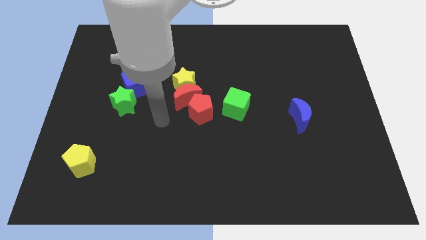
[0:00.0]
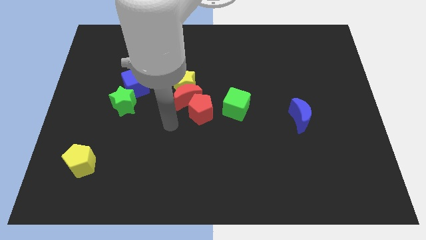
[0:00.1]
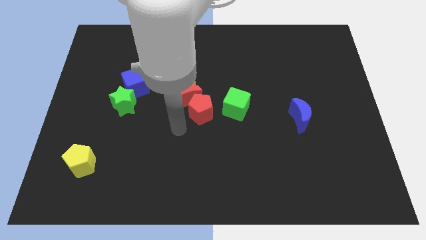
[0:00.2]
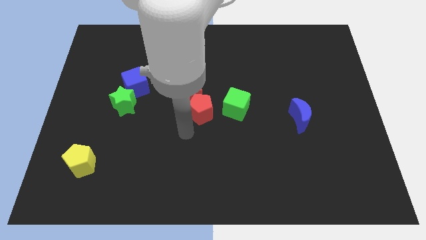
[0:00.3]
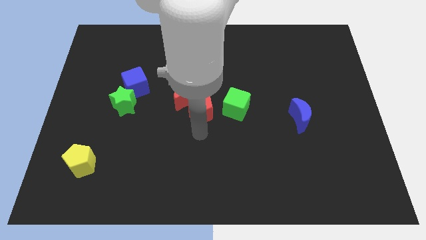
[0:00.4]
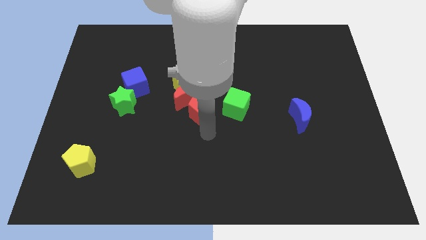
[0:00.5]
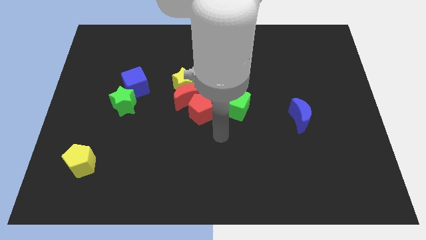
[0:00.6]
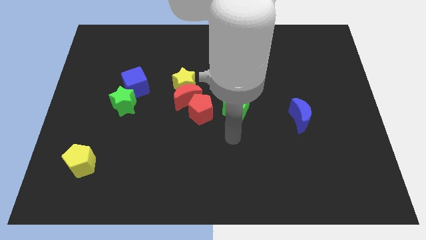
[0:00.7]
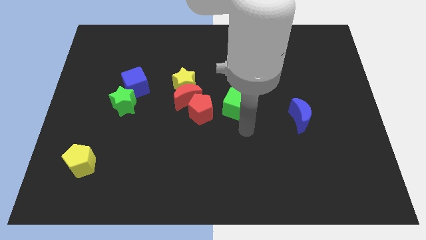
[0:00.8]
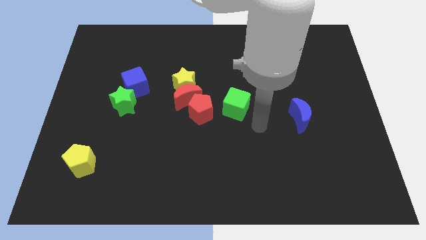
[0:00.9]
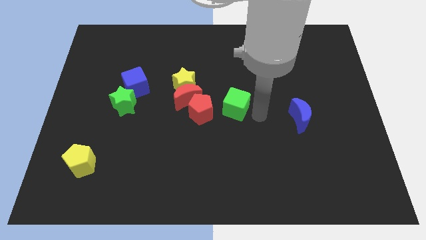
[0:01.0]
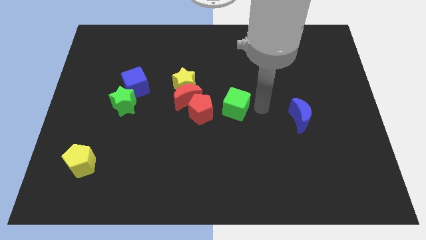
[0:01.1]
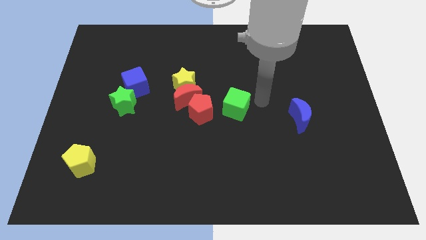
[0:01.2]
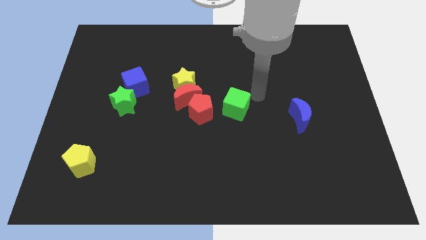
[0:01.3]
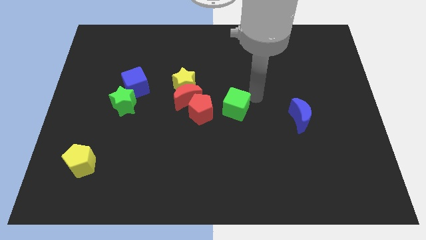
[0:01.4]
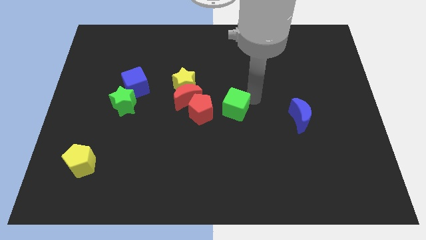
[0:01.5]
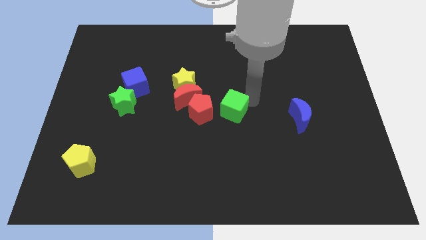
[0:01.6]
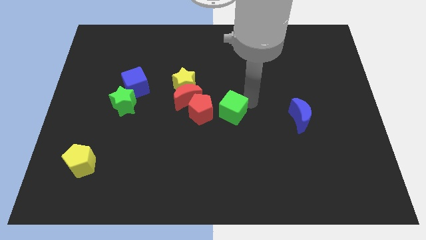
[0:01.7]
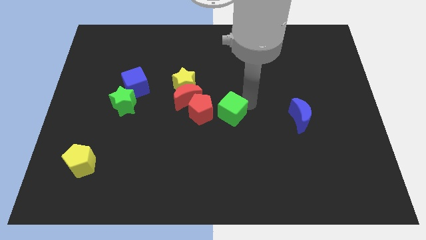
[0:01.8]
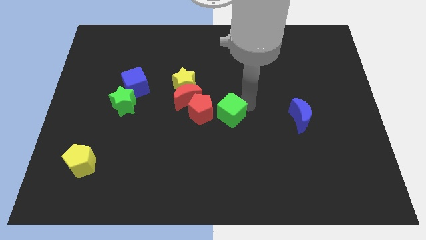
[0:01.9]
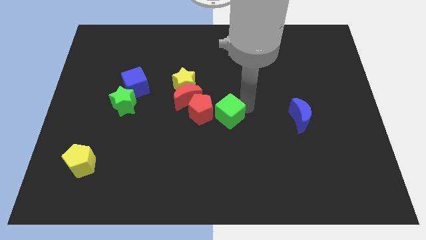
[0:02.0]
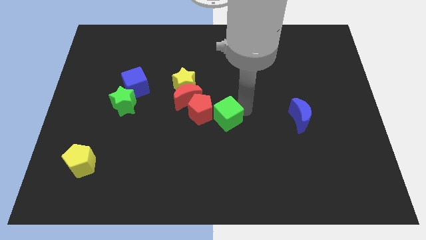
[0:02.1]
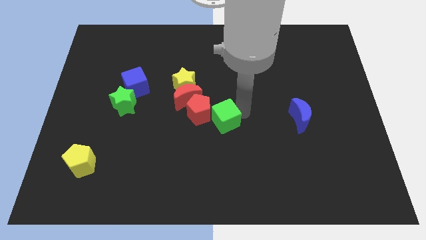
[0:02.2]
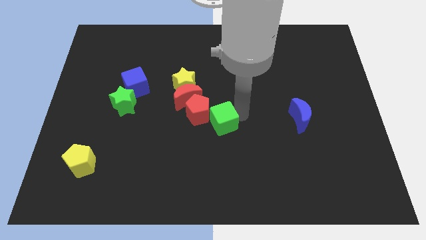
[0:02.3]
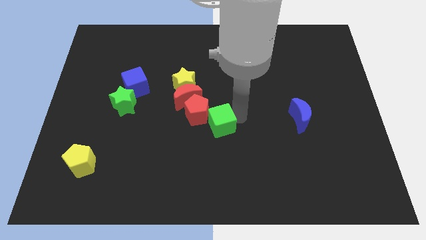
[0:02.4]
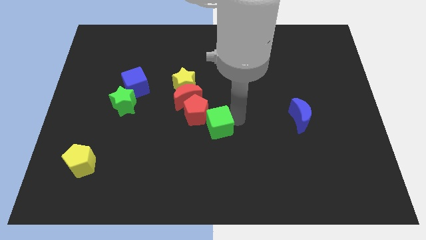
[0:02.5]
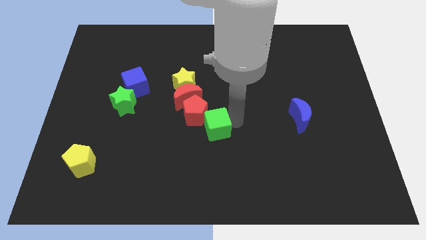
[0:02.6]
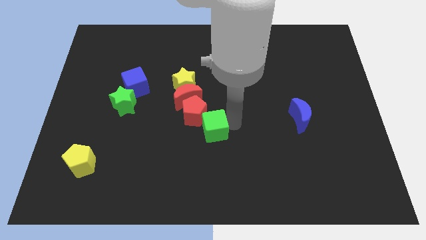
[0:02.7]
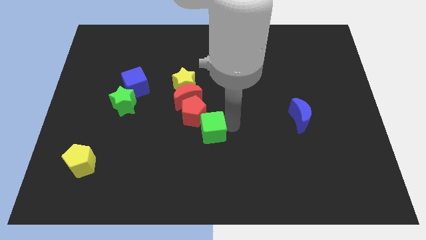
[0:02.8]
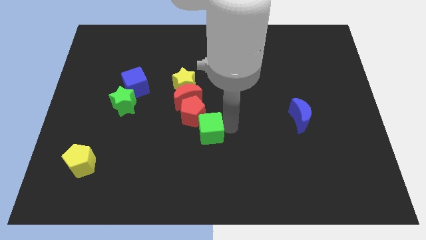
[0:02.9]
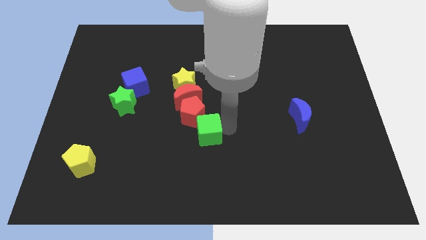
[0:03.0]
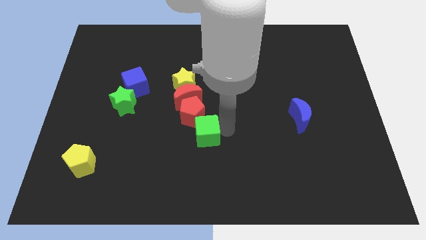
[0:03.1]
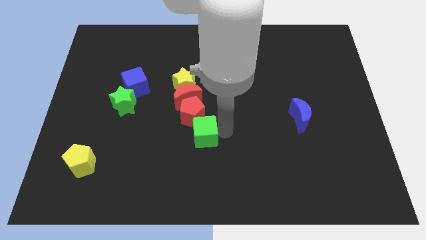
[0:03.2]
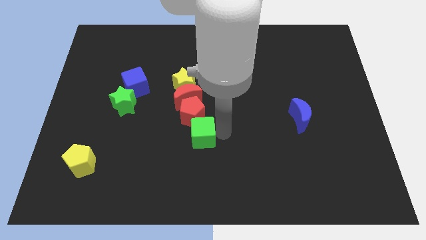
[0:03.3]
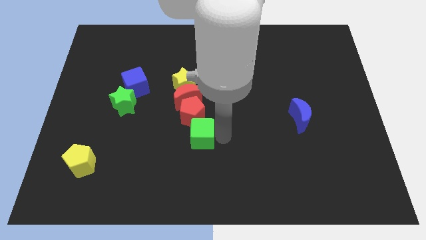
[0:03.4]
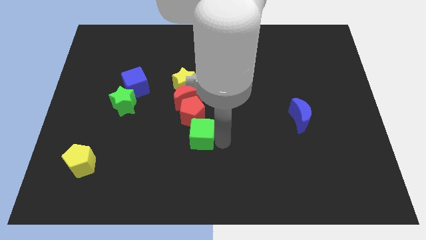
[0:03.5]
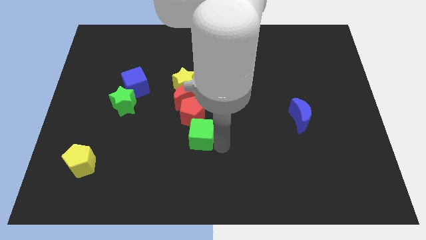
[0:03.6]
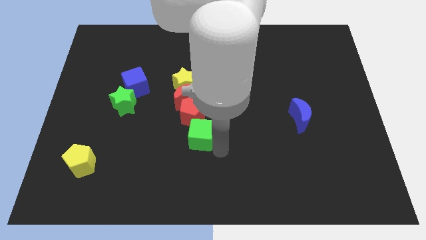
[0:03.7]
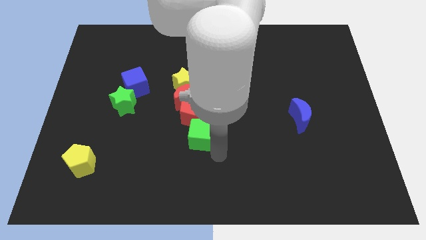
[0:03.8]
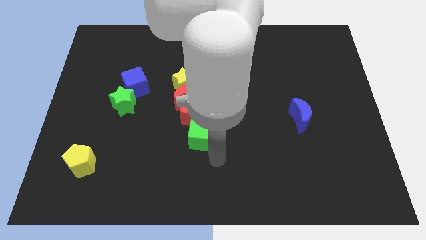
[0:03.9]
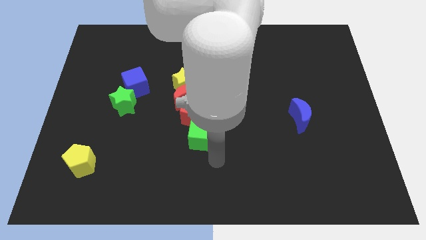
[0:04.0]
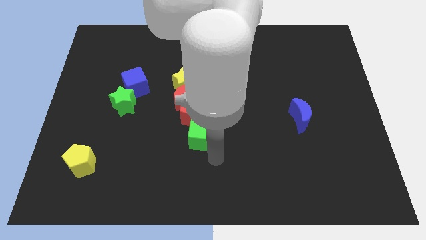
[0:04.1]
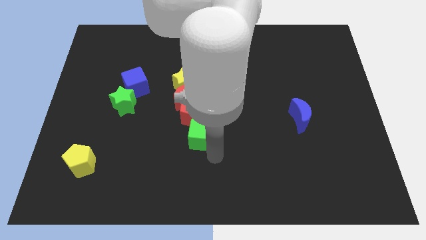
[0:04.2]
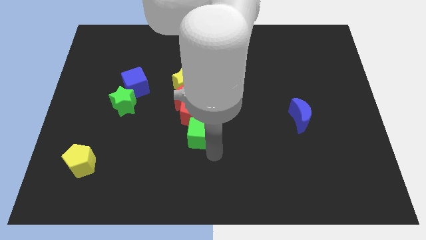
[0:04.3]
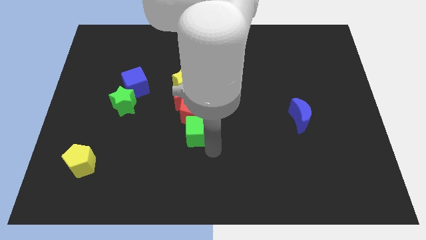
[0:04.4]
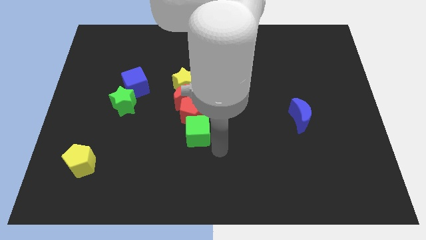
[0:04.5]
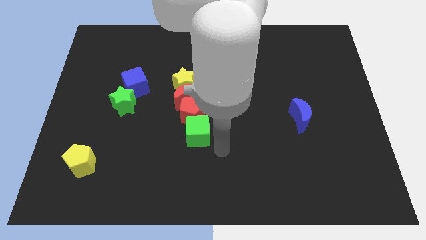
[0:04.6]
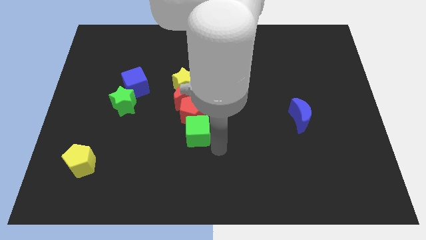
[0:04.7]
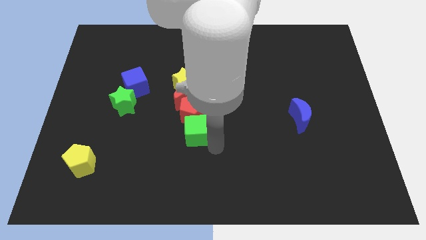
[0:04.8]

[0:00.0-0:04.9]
move the green cube left a little

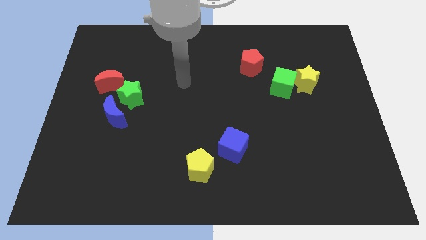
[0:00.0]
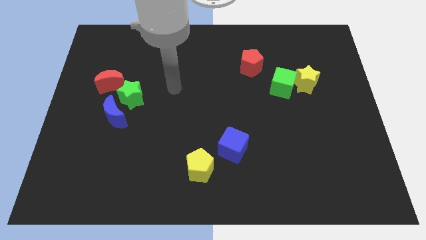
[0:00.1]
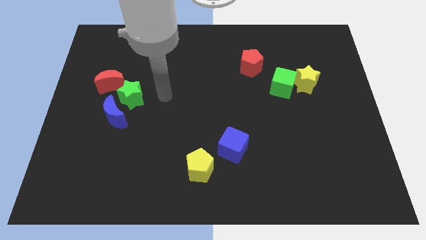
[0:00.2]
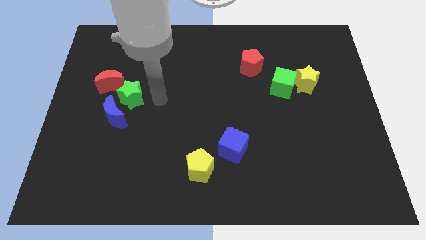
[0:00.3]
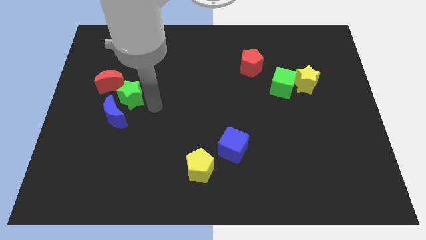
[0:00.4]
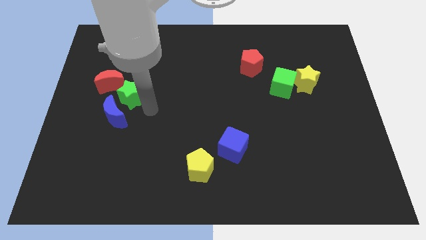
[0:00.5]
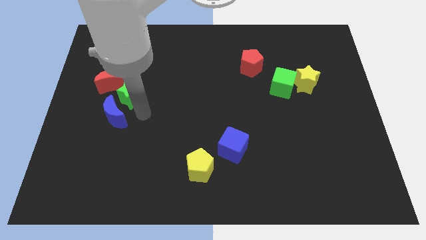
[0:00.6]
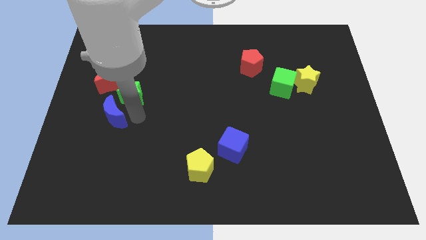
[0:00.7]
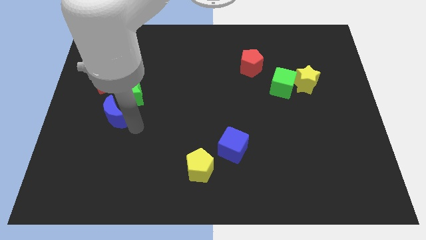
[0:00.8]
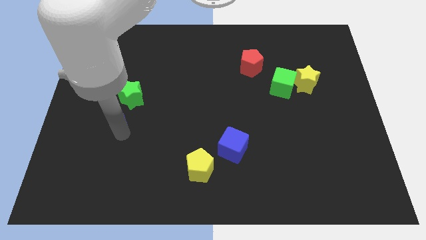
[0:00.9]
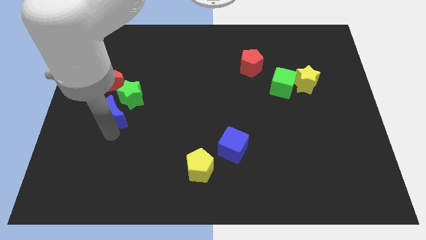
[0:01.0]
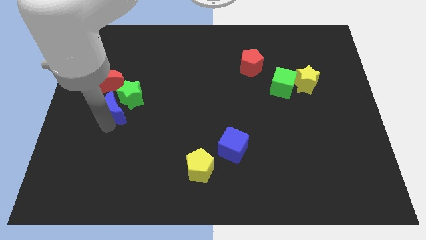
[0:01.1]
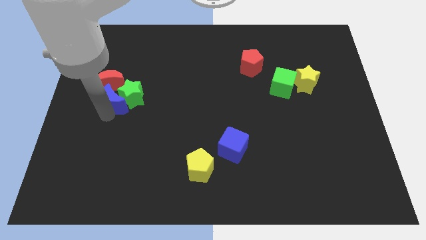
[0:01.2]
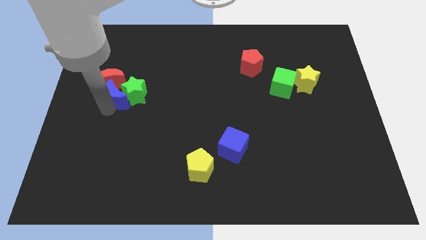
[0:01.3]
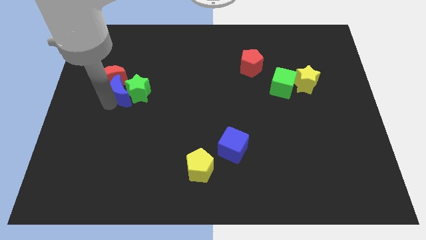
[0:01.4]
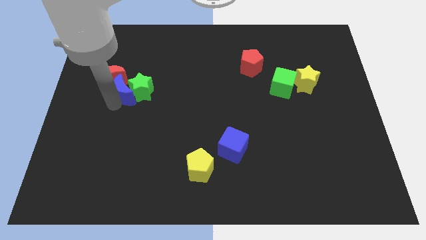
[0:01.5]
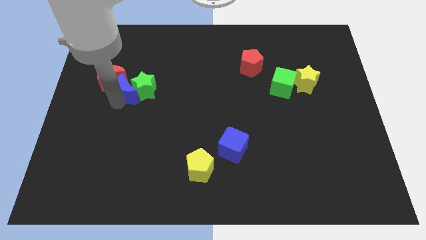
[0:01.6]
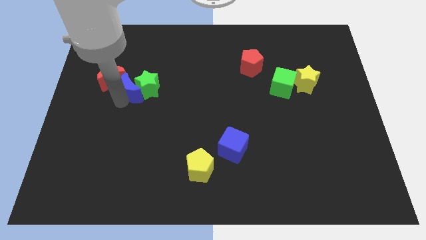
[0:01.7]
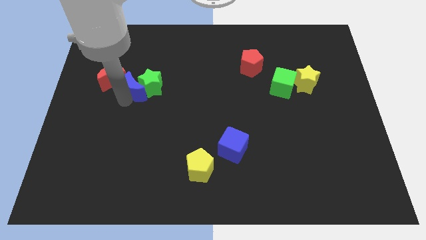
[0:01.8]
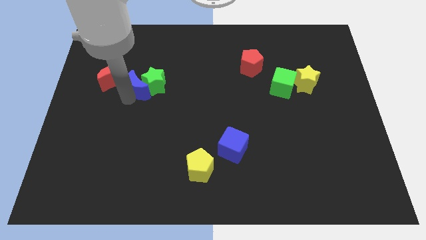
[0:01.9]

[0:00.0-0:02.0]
slightly slide the green star up and right

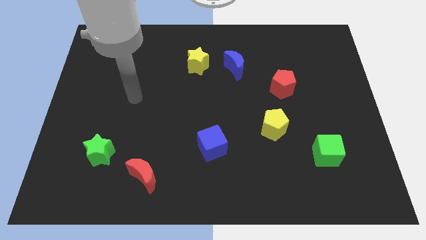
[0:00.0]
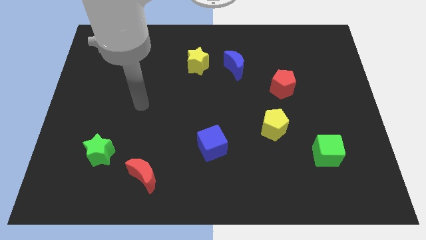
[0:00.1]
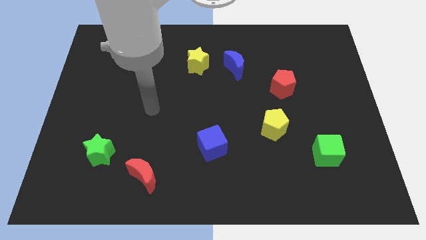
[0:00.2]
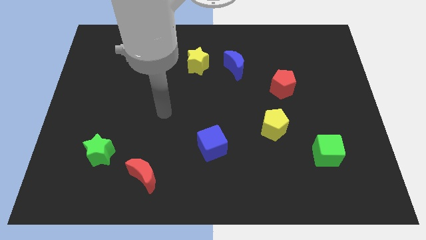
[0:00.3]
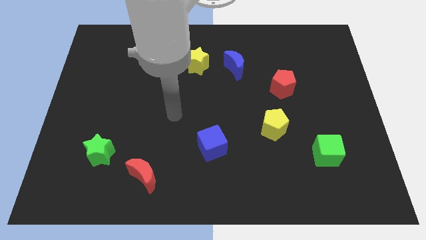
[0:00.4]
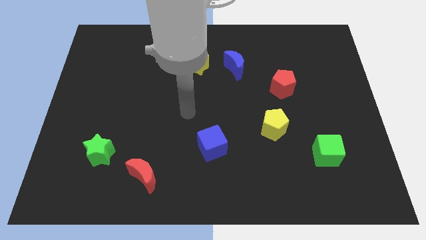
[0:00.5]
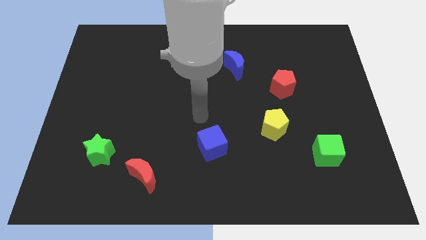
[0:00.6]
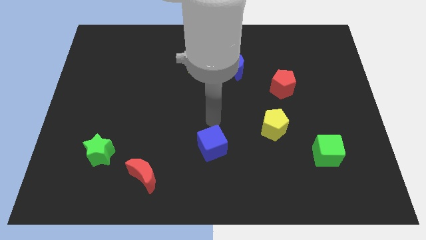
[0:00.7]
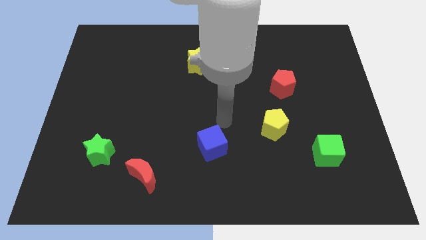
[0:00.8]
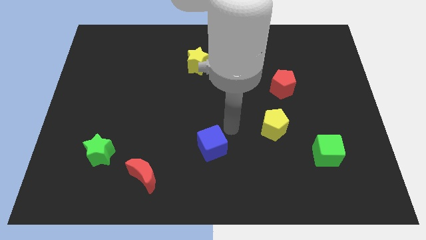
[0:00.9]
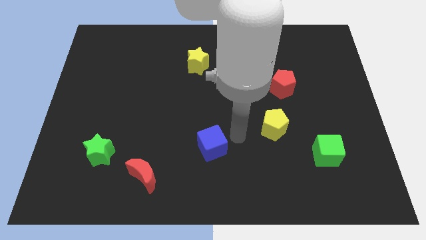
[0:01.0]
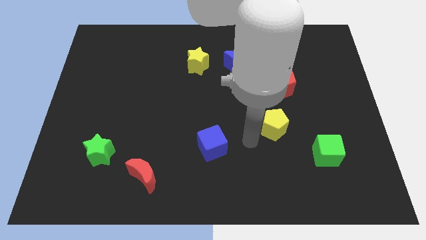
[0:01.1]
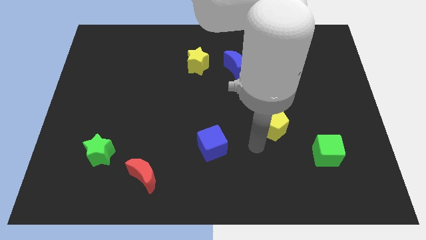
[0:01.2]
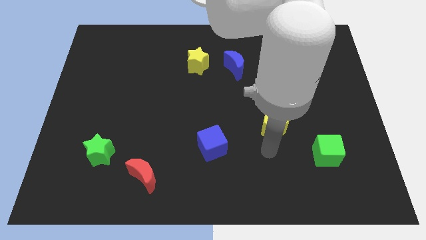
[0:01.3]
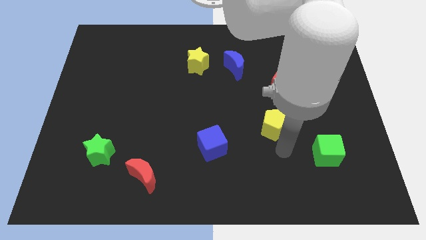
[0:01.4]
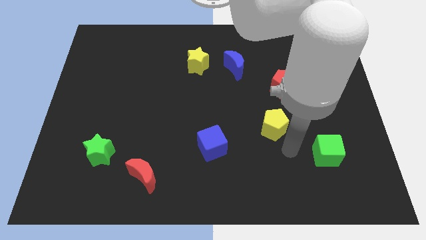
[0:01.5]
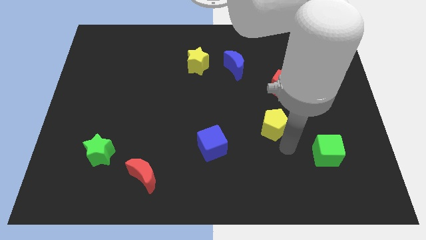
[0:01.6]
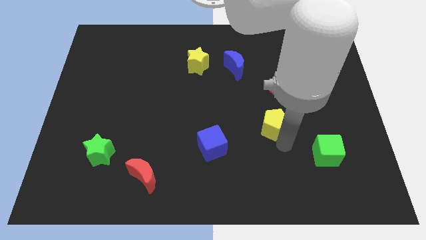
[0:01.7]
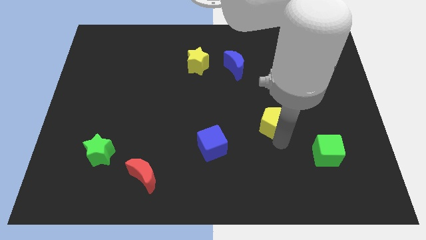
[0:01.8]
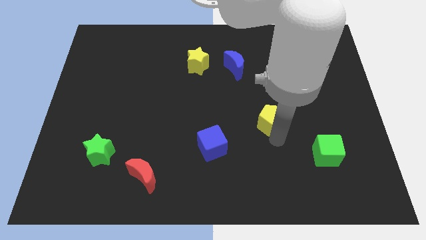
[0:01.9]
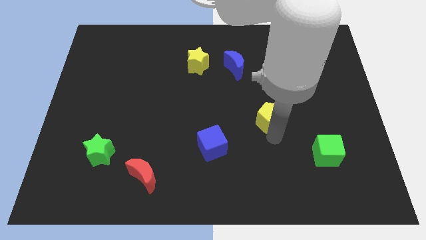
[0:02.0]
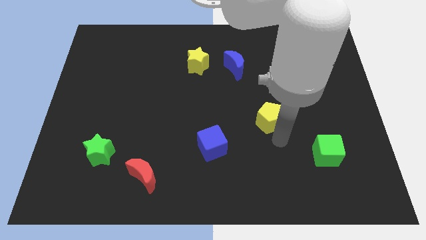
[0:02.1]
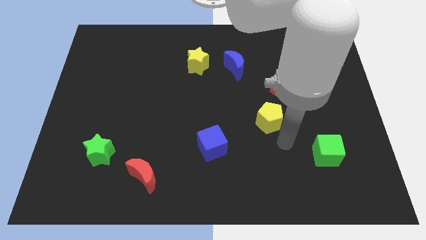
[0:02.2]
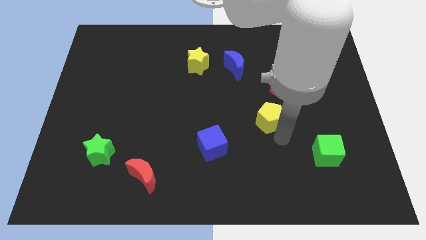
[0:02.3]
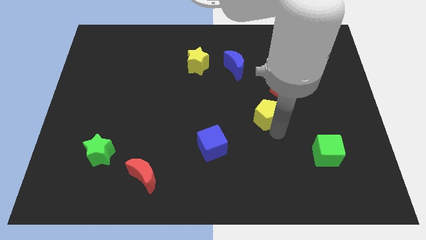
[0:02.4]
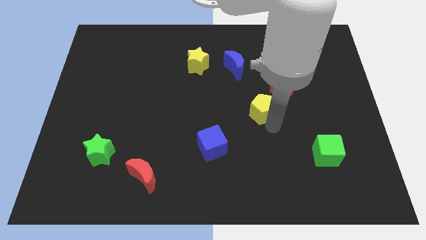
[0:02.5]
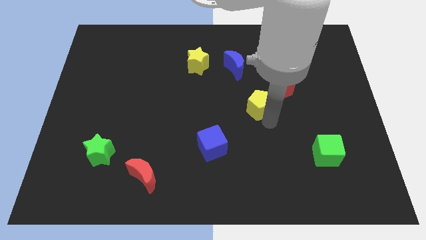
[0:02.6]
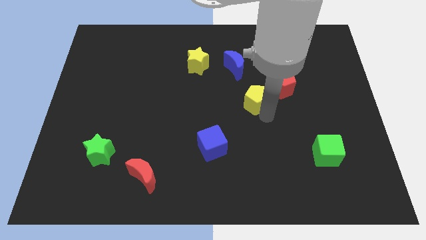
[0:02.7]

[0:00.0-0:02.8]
slide the yellow pentagon somewhat upwards and left diagonally
